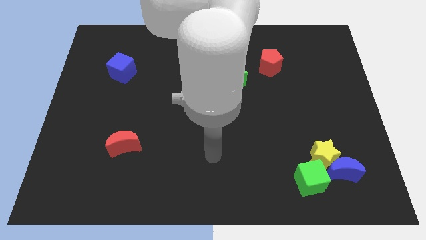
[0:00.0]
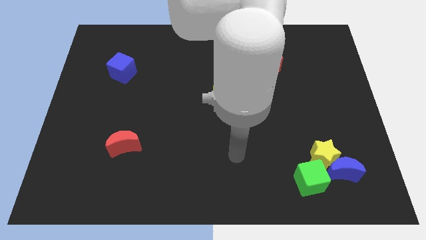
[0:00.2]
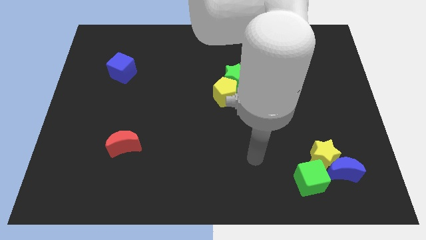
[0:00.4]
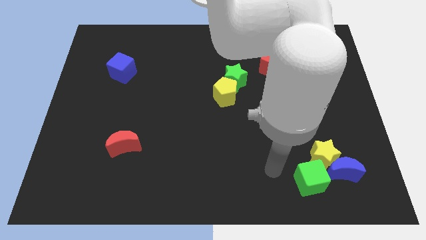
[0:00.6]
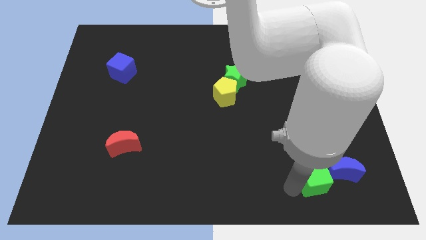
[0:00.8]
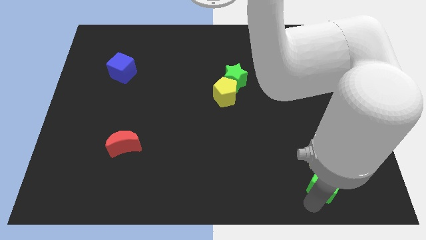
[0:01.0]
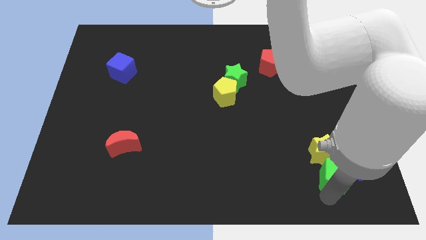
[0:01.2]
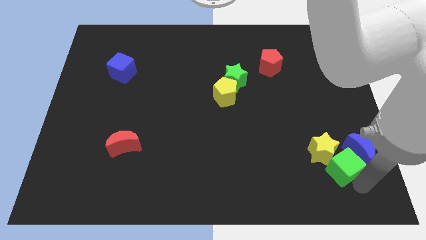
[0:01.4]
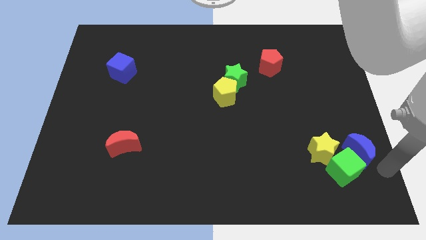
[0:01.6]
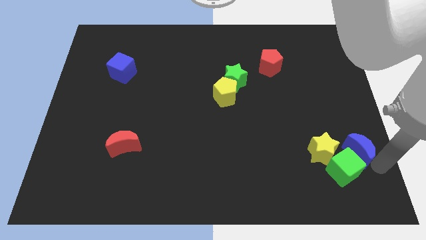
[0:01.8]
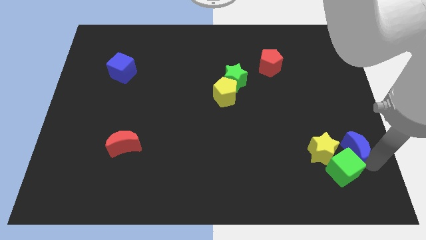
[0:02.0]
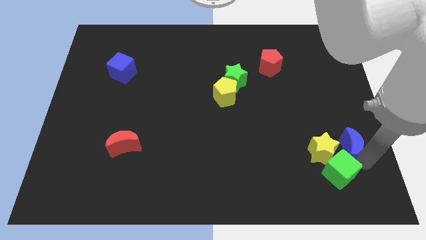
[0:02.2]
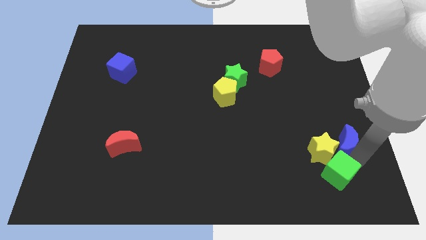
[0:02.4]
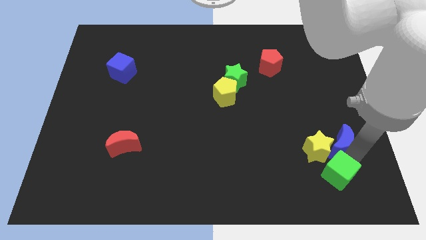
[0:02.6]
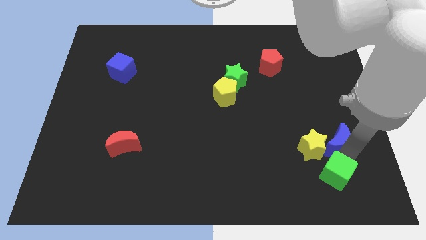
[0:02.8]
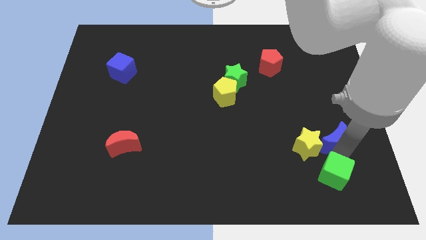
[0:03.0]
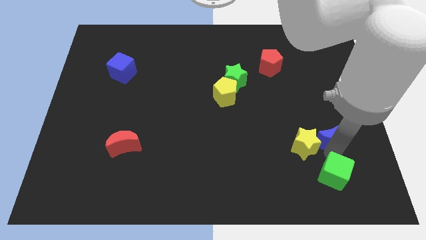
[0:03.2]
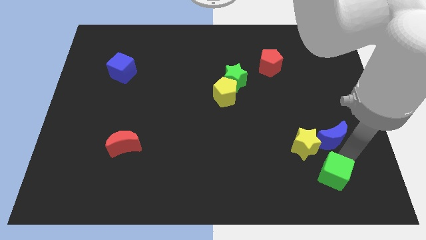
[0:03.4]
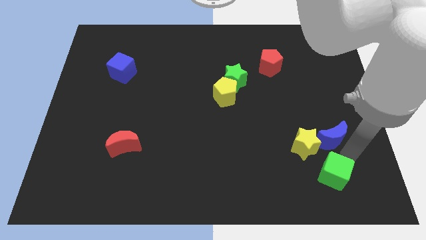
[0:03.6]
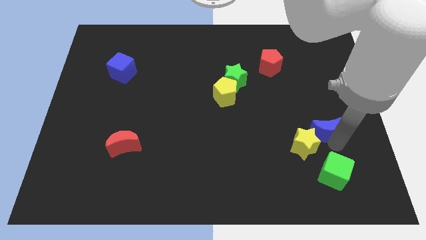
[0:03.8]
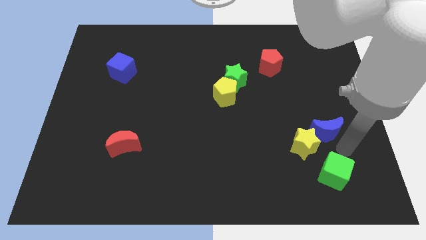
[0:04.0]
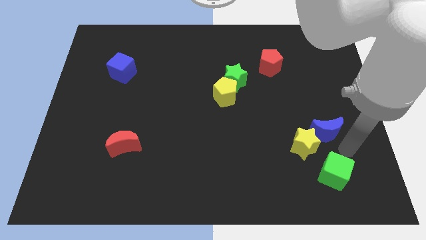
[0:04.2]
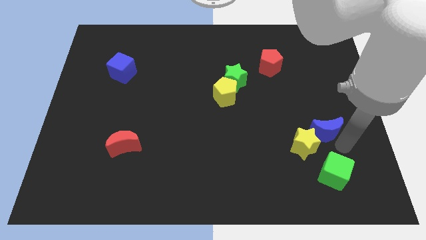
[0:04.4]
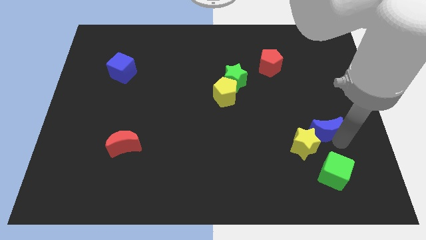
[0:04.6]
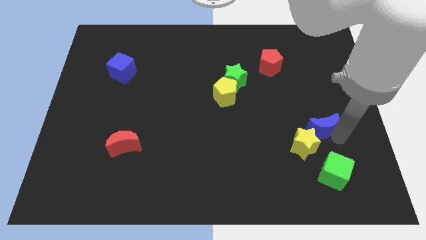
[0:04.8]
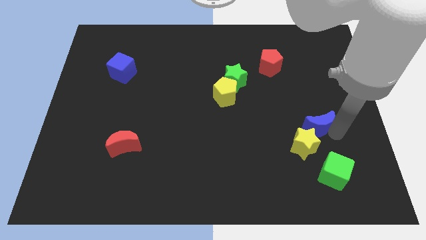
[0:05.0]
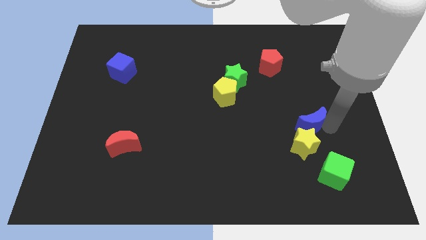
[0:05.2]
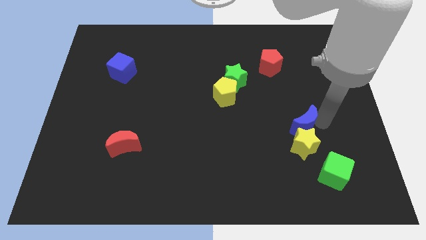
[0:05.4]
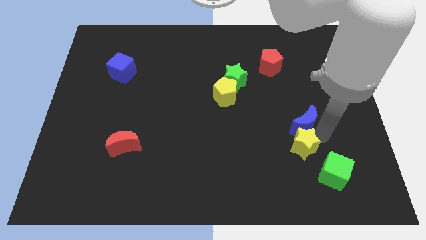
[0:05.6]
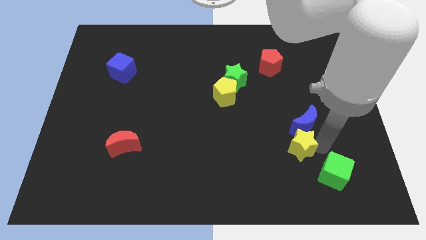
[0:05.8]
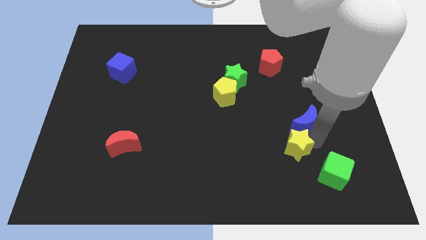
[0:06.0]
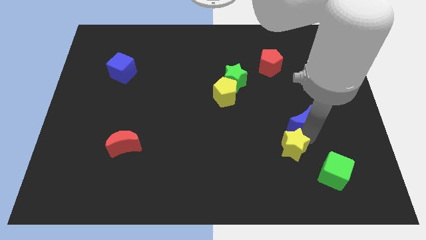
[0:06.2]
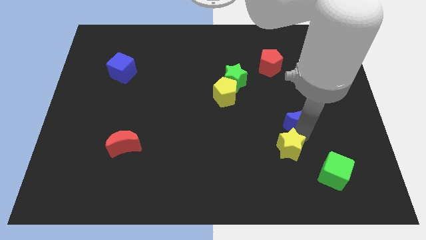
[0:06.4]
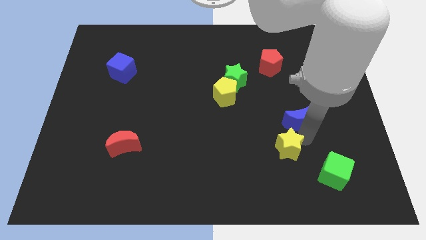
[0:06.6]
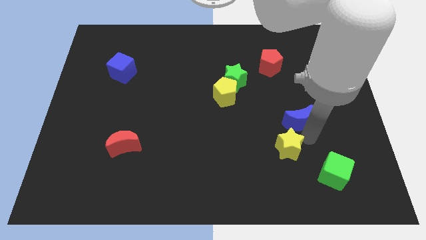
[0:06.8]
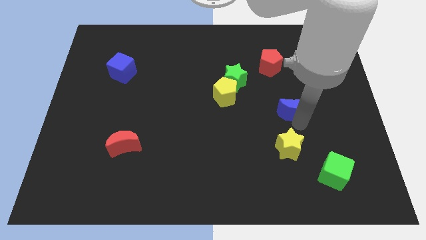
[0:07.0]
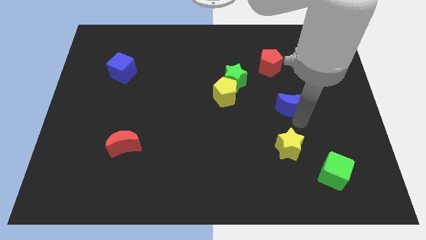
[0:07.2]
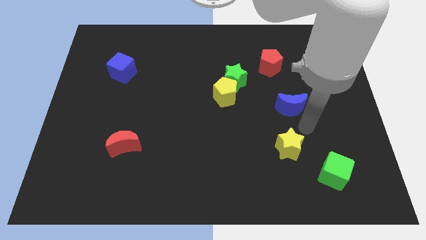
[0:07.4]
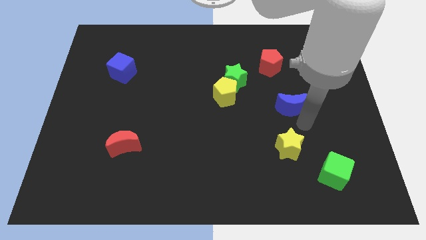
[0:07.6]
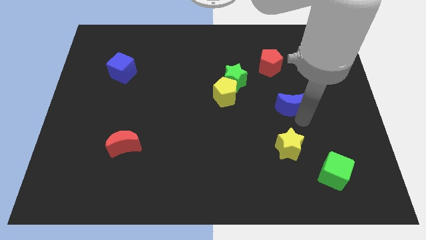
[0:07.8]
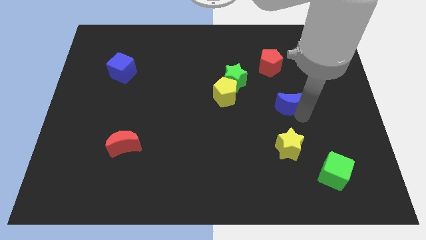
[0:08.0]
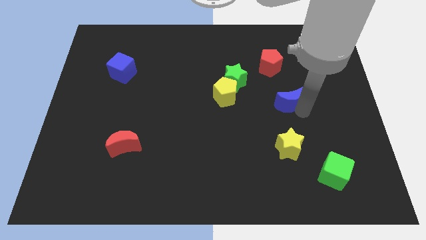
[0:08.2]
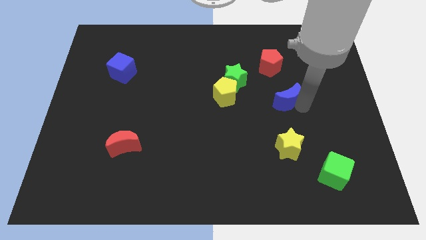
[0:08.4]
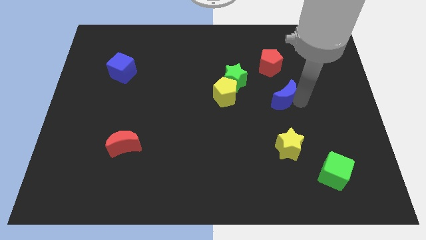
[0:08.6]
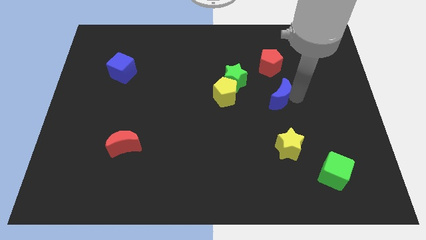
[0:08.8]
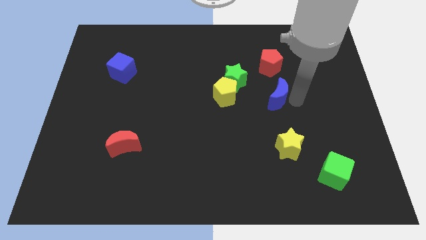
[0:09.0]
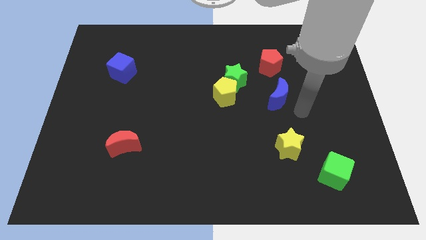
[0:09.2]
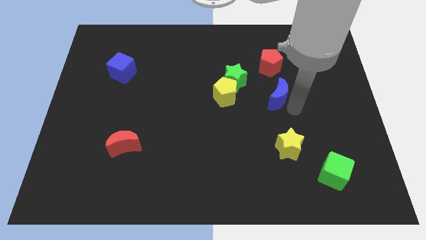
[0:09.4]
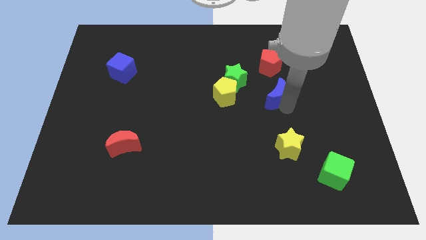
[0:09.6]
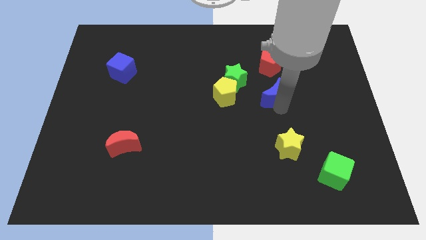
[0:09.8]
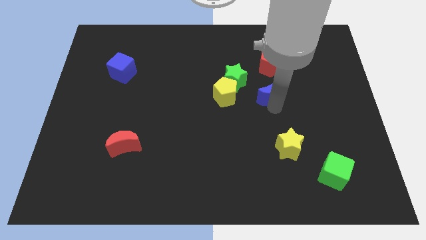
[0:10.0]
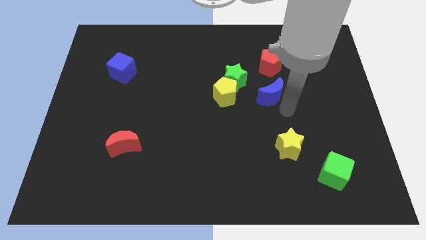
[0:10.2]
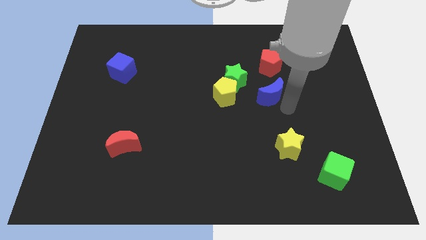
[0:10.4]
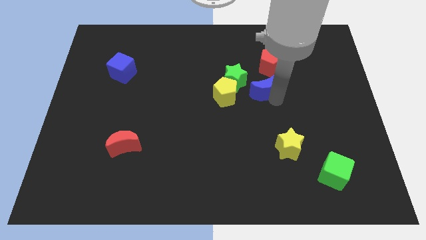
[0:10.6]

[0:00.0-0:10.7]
move the blue moon to the bottom left of the red pentagon

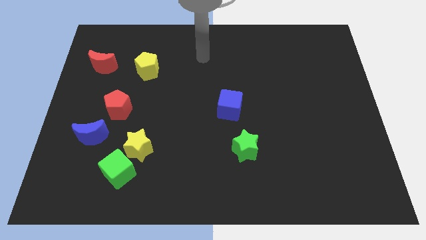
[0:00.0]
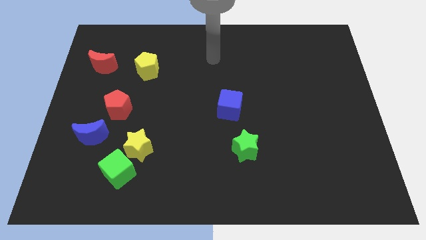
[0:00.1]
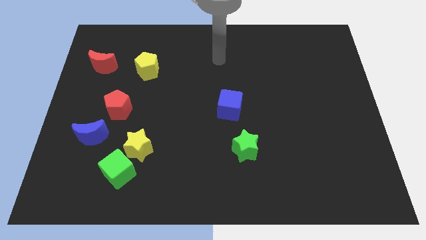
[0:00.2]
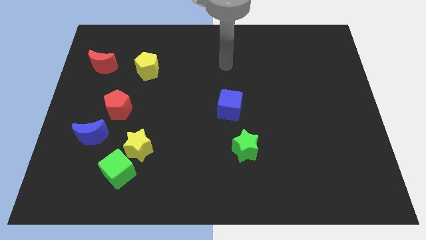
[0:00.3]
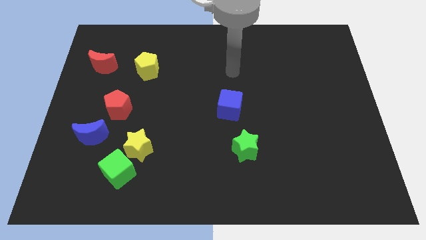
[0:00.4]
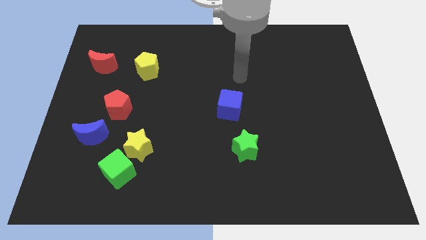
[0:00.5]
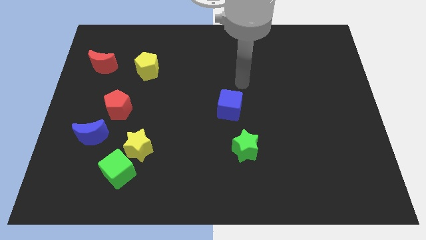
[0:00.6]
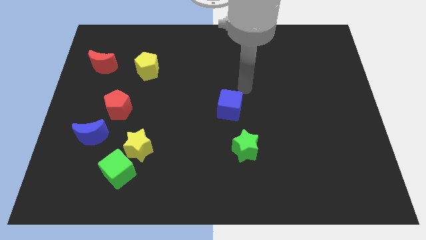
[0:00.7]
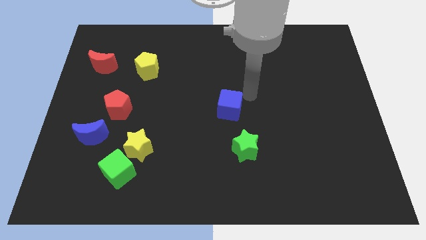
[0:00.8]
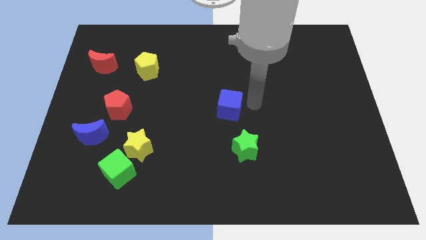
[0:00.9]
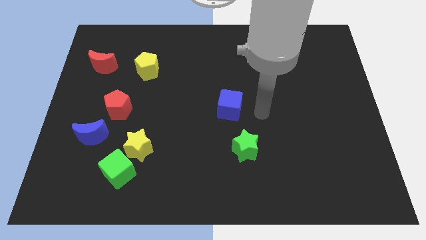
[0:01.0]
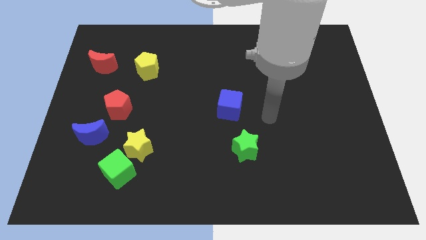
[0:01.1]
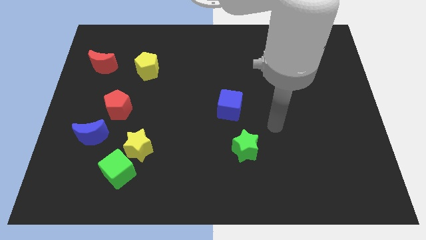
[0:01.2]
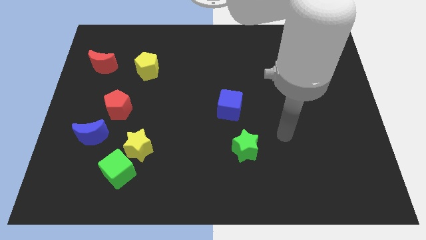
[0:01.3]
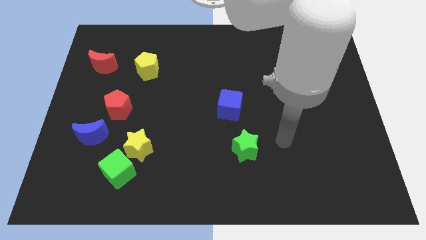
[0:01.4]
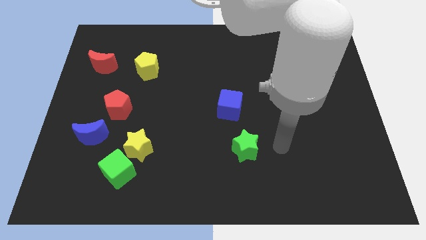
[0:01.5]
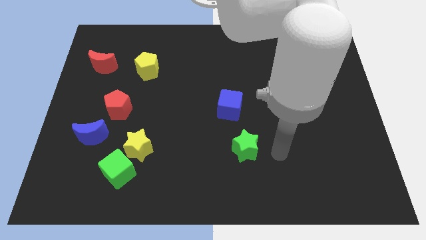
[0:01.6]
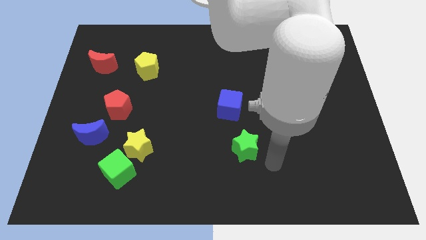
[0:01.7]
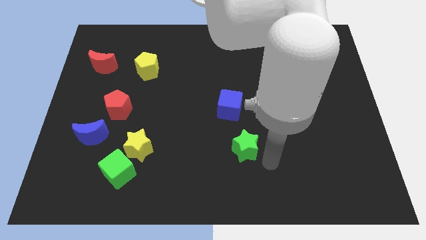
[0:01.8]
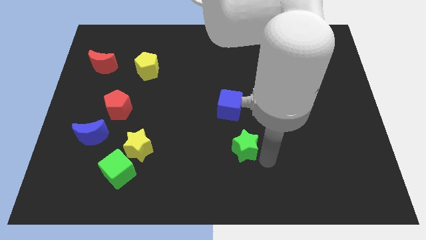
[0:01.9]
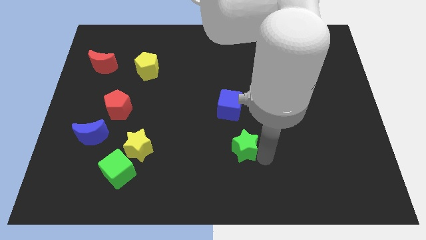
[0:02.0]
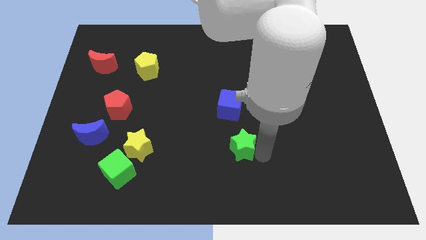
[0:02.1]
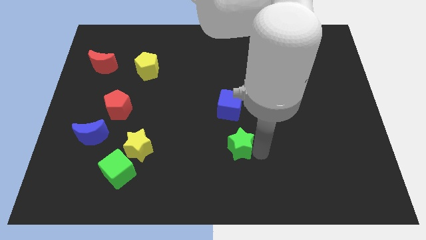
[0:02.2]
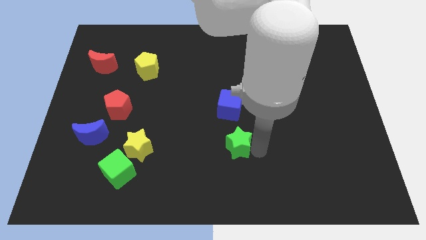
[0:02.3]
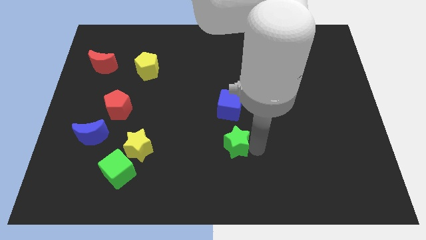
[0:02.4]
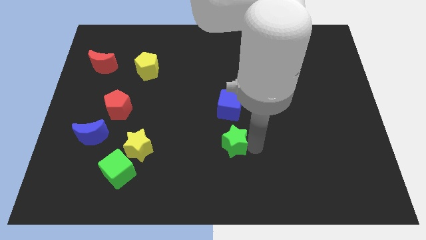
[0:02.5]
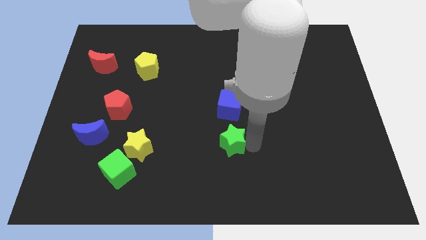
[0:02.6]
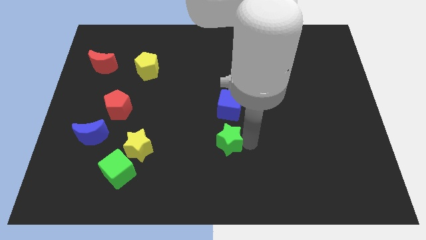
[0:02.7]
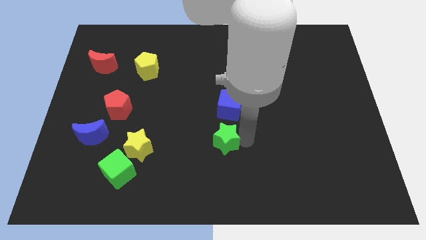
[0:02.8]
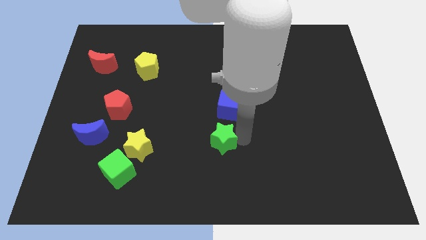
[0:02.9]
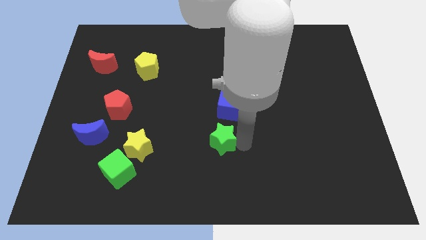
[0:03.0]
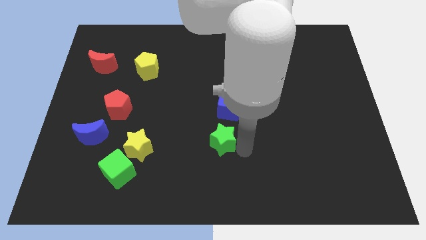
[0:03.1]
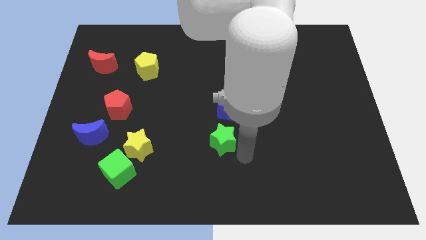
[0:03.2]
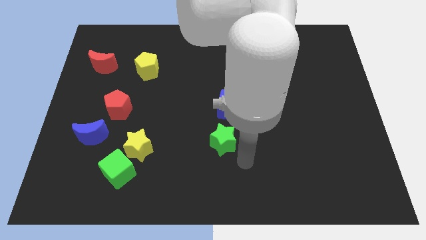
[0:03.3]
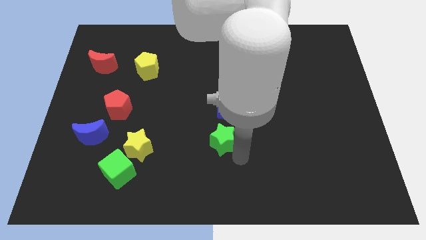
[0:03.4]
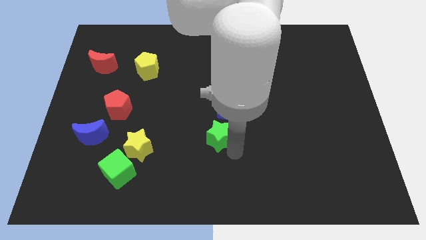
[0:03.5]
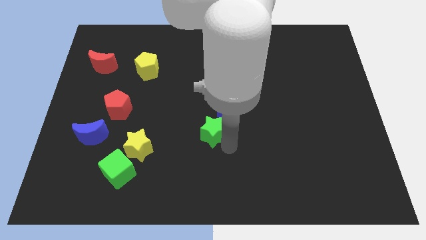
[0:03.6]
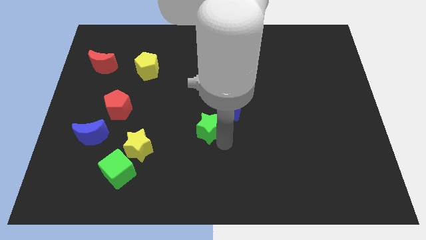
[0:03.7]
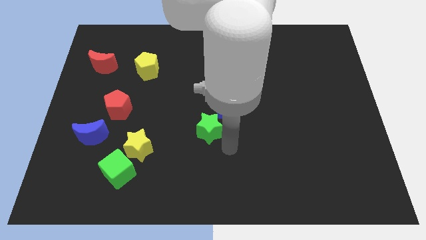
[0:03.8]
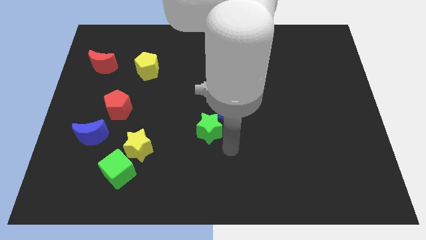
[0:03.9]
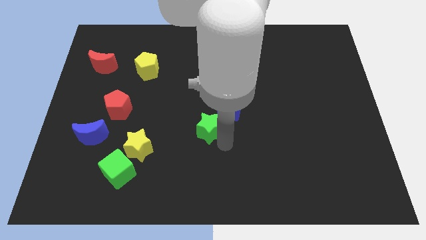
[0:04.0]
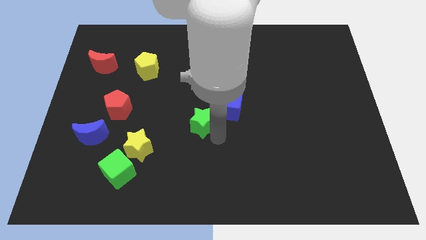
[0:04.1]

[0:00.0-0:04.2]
slide the green star to the left of the blue cube
